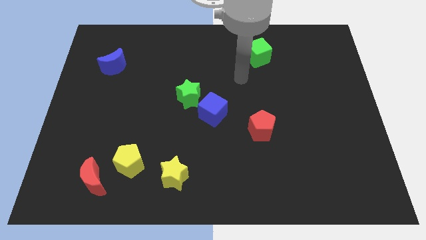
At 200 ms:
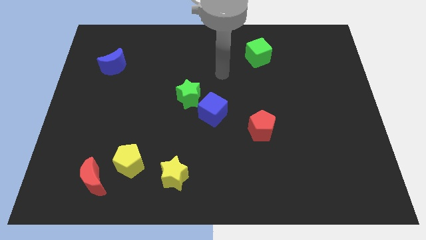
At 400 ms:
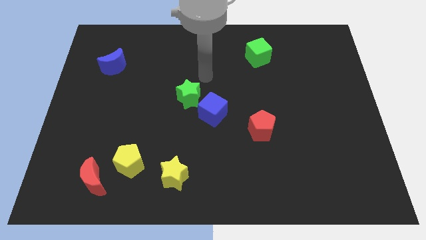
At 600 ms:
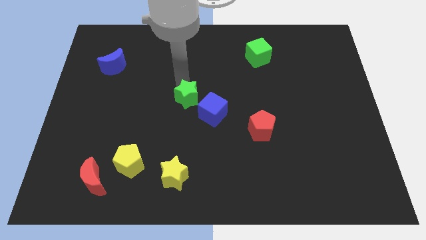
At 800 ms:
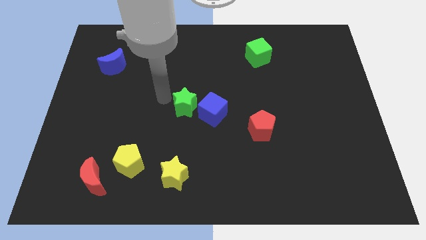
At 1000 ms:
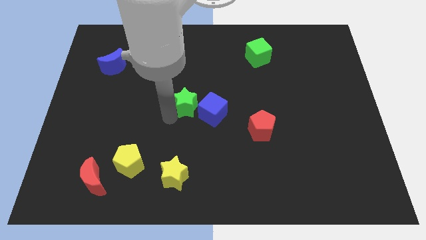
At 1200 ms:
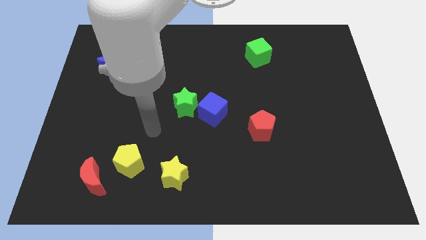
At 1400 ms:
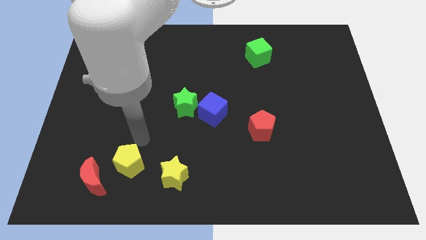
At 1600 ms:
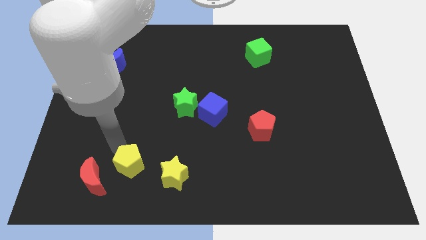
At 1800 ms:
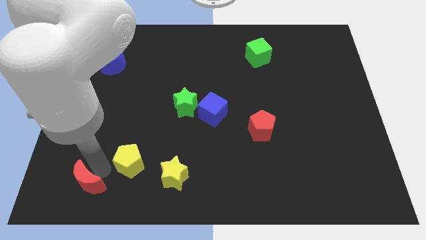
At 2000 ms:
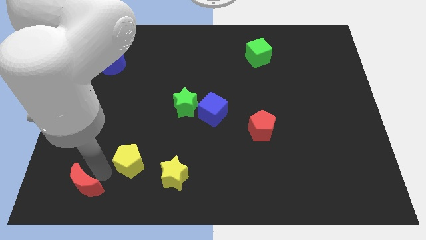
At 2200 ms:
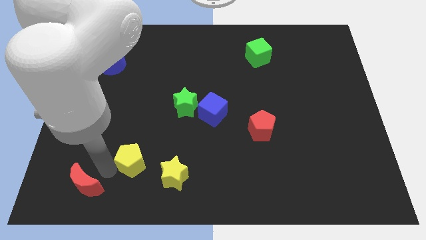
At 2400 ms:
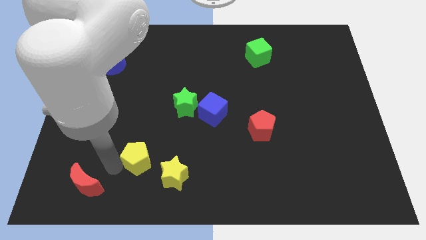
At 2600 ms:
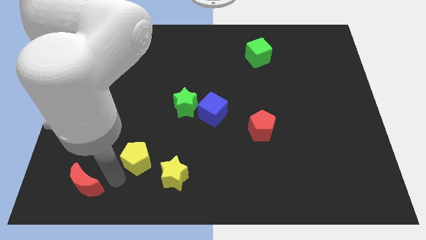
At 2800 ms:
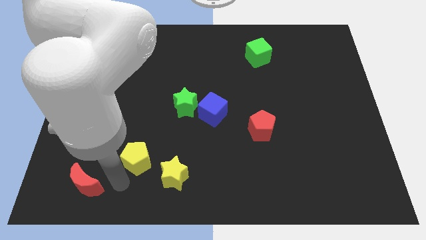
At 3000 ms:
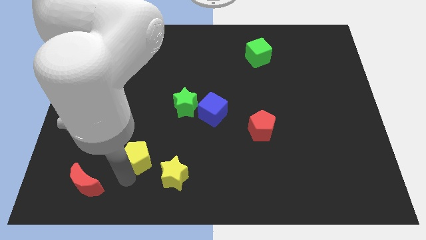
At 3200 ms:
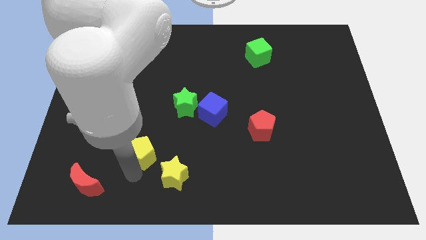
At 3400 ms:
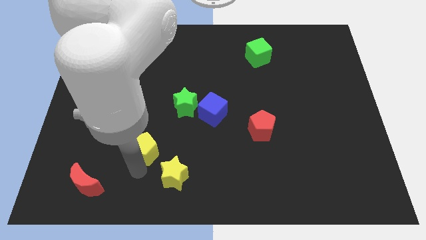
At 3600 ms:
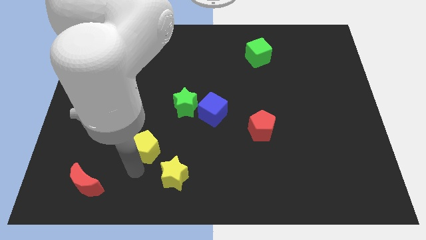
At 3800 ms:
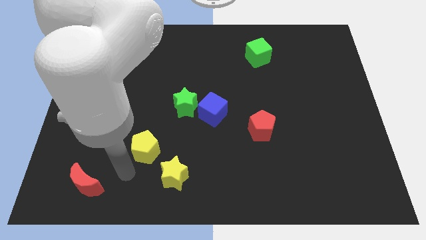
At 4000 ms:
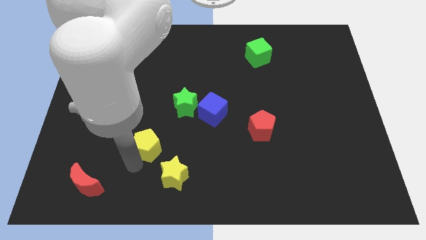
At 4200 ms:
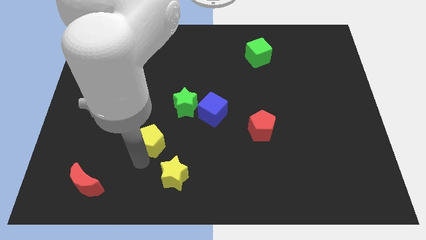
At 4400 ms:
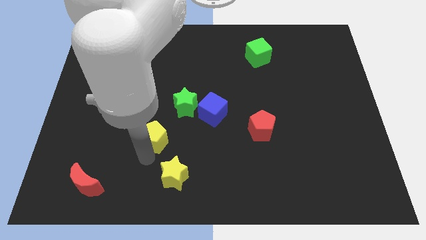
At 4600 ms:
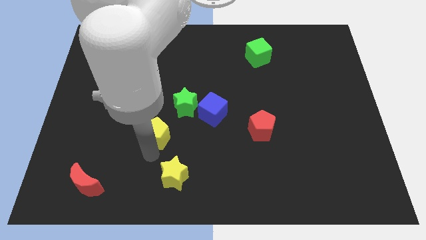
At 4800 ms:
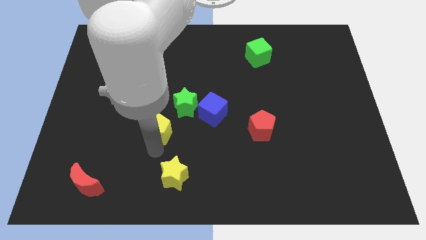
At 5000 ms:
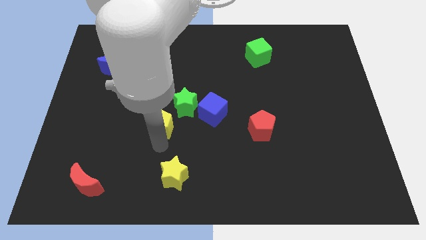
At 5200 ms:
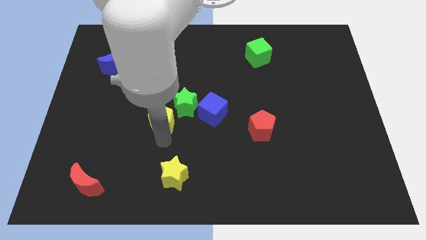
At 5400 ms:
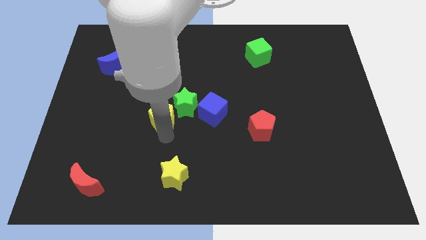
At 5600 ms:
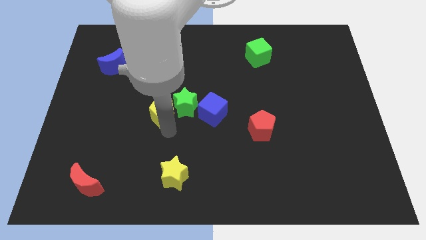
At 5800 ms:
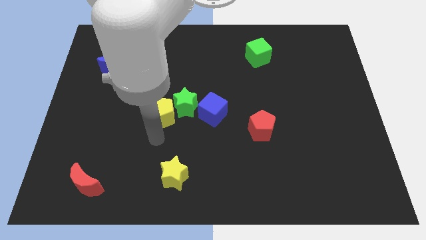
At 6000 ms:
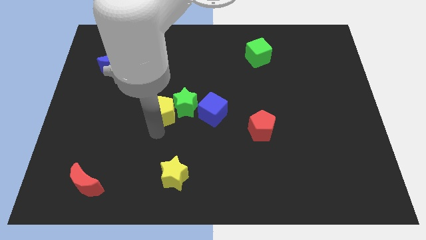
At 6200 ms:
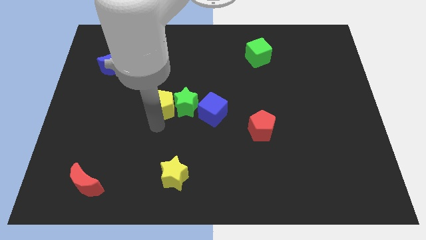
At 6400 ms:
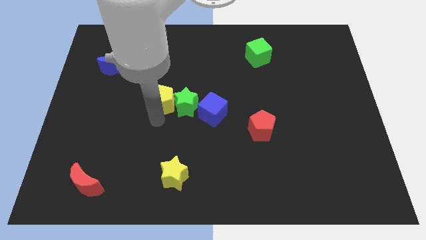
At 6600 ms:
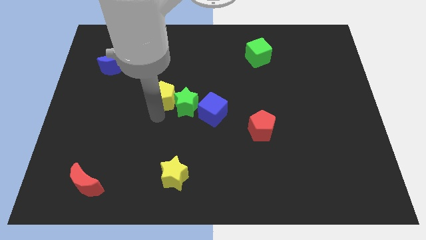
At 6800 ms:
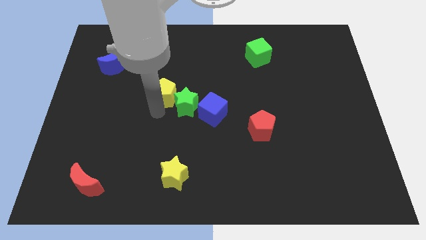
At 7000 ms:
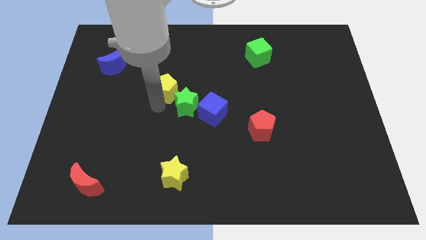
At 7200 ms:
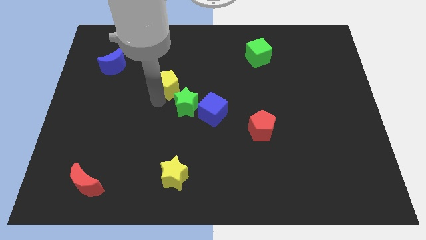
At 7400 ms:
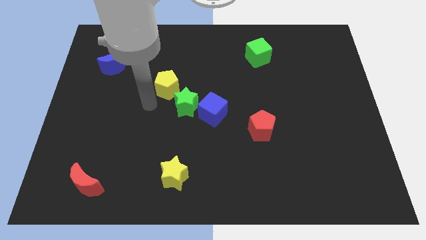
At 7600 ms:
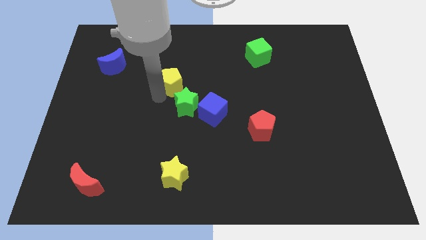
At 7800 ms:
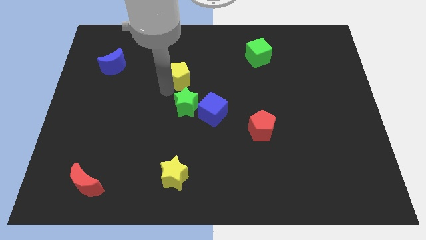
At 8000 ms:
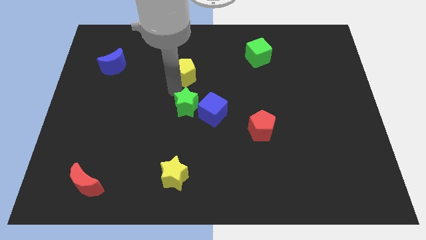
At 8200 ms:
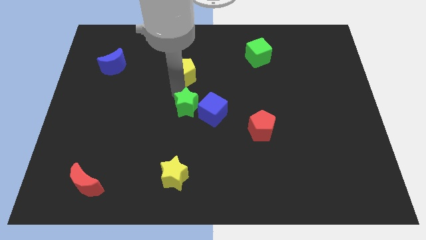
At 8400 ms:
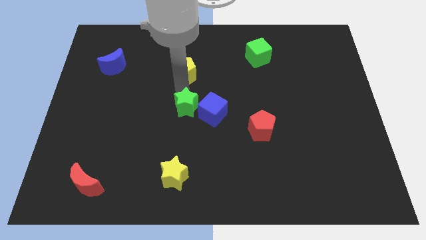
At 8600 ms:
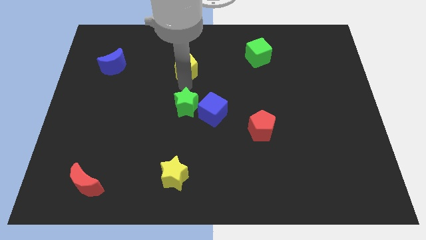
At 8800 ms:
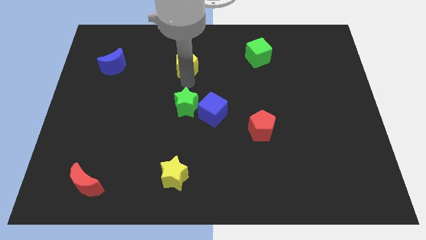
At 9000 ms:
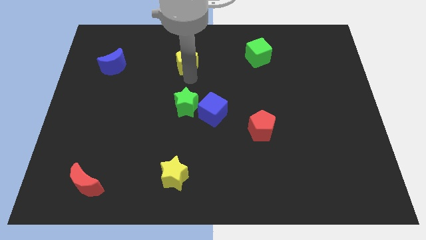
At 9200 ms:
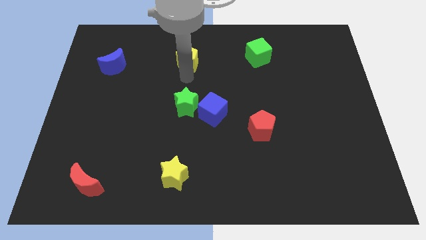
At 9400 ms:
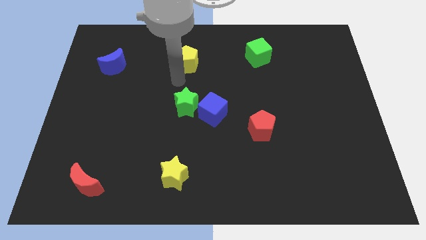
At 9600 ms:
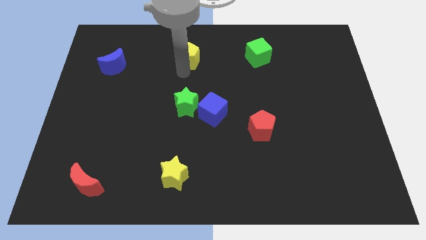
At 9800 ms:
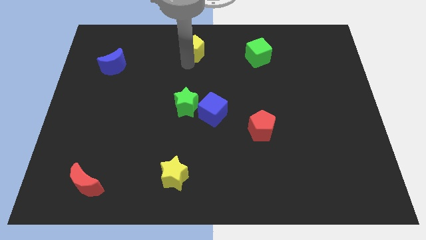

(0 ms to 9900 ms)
push the yellow pentagon to the top

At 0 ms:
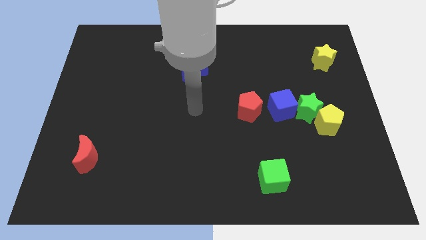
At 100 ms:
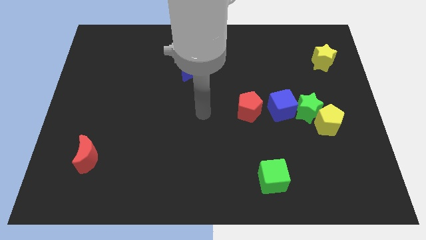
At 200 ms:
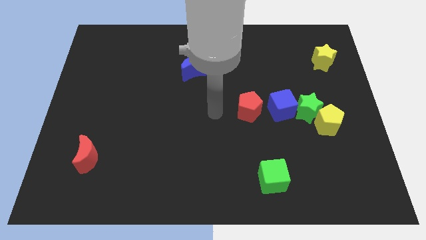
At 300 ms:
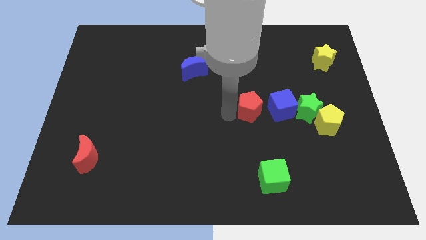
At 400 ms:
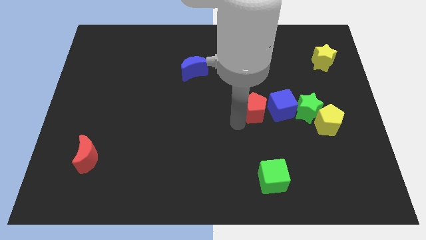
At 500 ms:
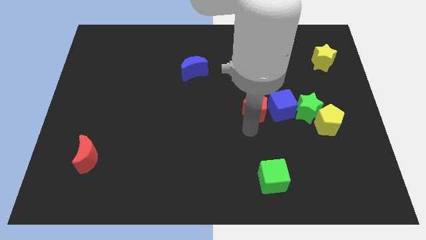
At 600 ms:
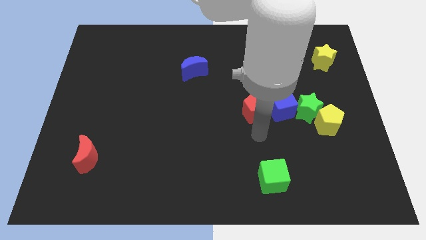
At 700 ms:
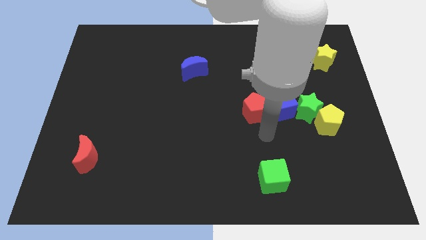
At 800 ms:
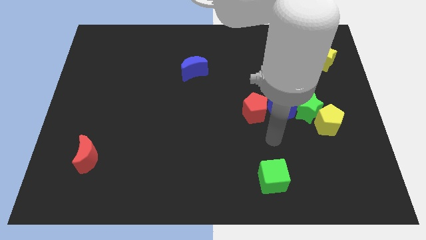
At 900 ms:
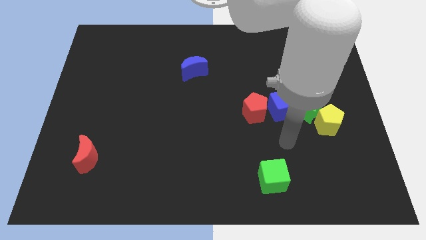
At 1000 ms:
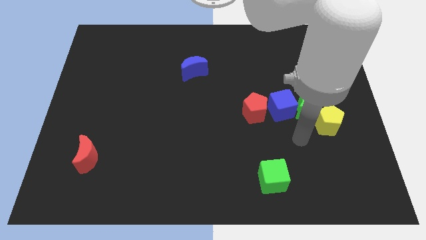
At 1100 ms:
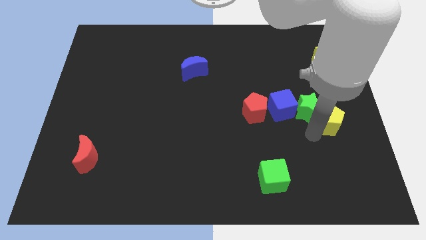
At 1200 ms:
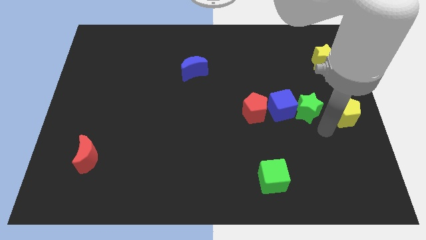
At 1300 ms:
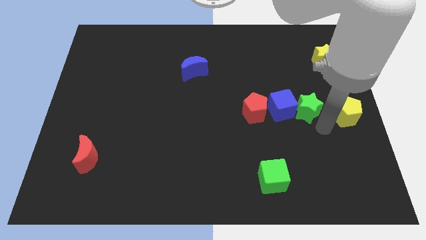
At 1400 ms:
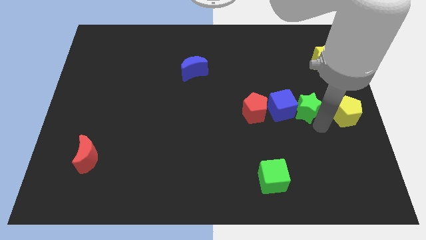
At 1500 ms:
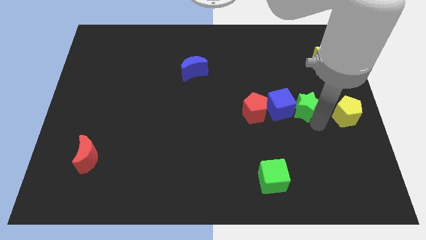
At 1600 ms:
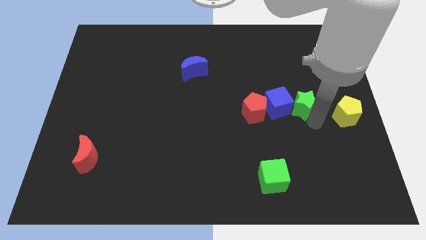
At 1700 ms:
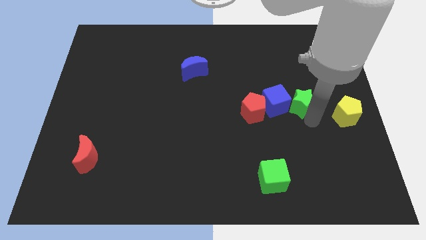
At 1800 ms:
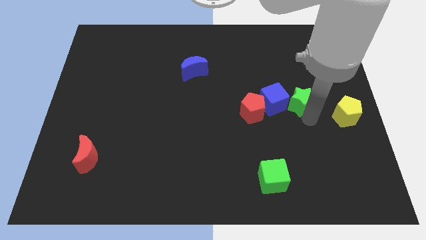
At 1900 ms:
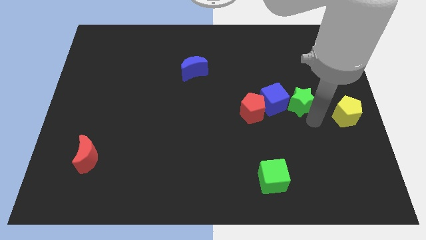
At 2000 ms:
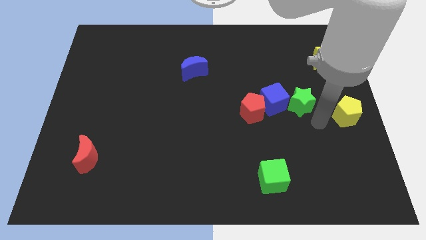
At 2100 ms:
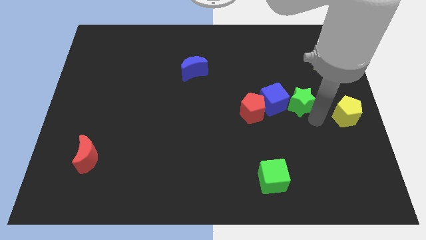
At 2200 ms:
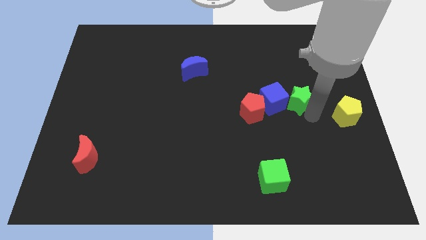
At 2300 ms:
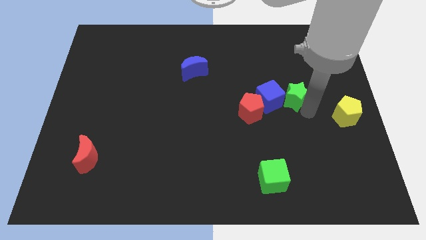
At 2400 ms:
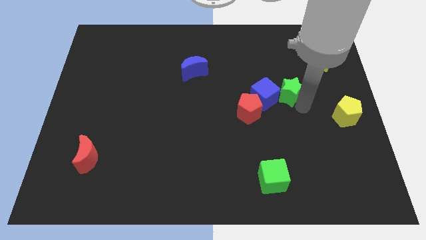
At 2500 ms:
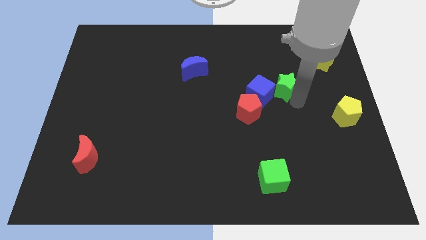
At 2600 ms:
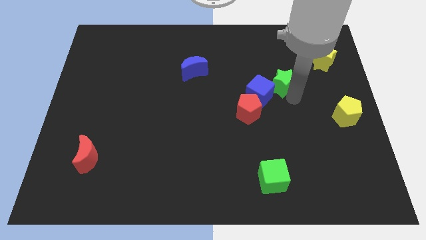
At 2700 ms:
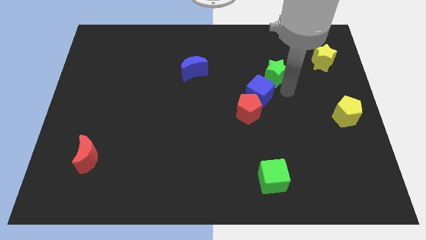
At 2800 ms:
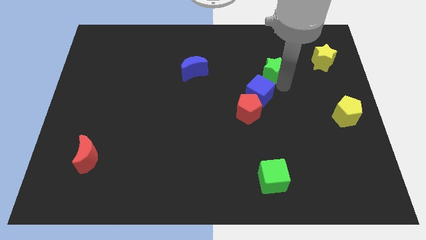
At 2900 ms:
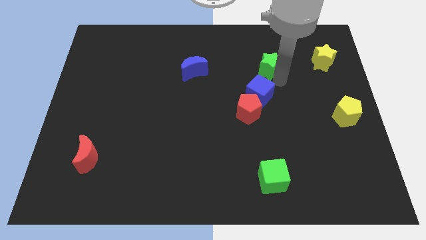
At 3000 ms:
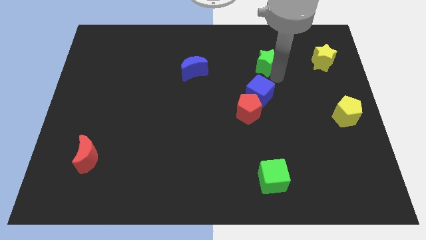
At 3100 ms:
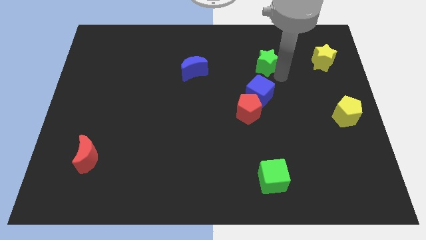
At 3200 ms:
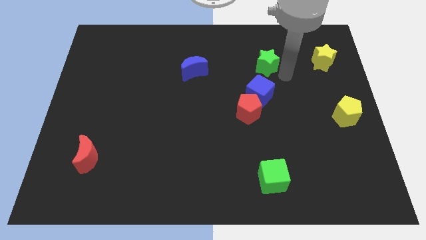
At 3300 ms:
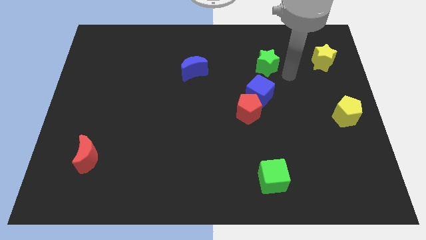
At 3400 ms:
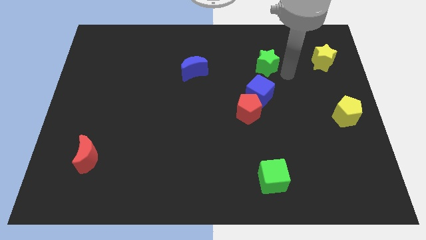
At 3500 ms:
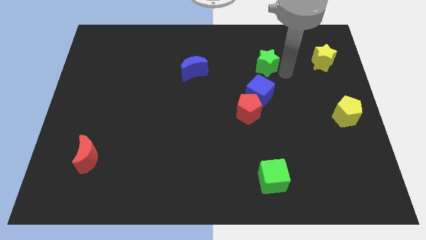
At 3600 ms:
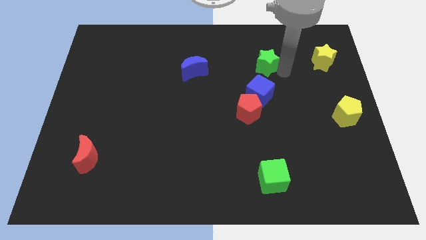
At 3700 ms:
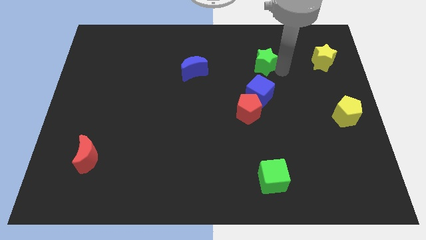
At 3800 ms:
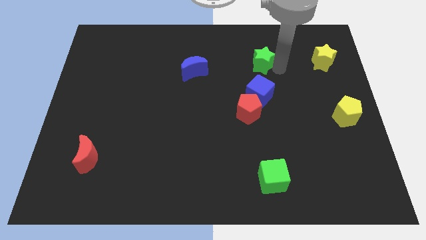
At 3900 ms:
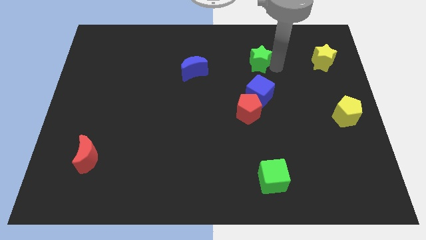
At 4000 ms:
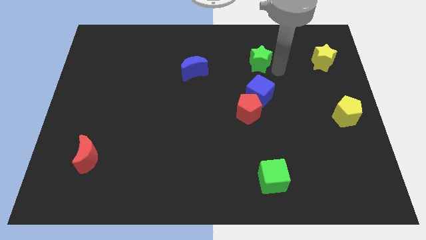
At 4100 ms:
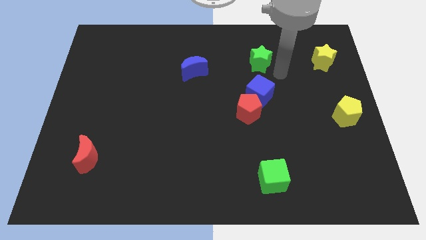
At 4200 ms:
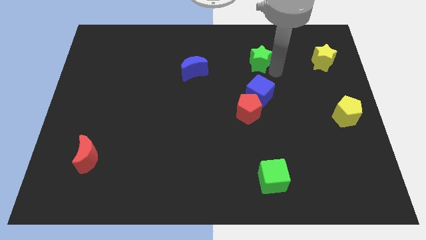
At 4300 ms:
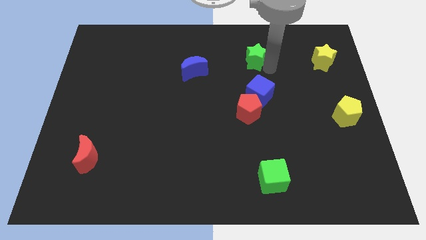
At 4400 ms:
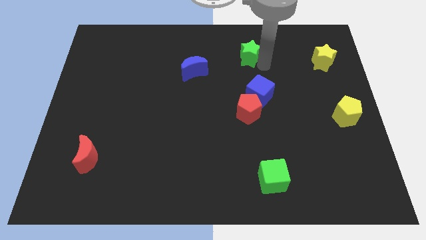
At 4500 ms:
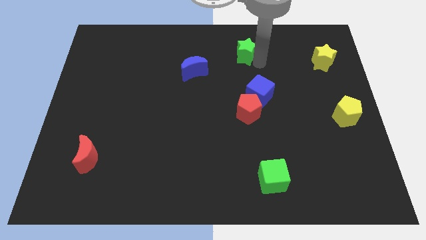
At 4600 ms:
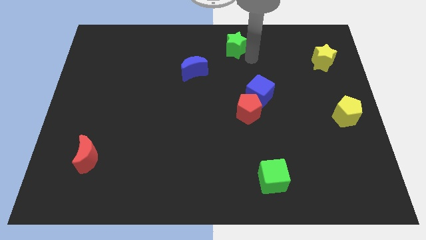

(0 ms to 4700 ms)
put the green star to the towards your base
